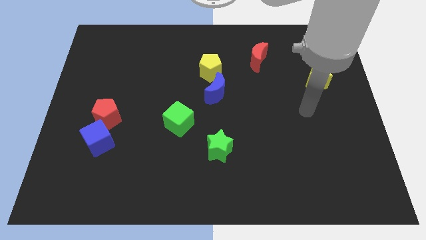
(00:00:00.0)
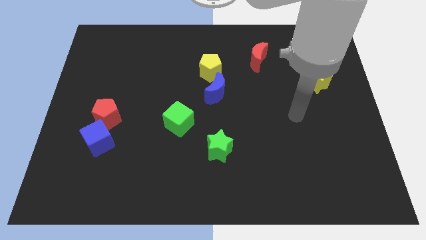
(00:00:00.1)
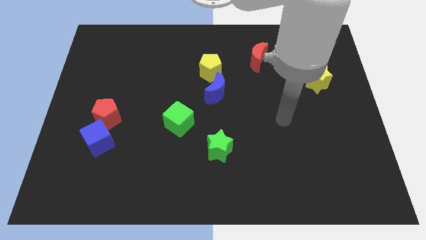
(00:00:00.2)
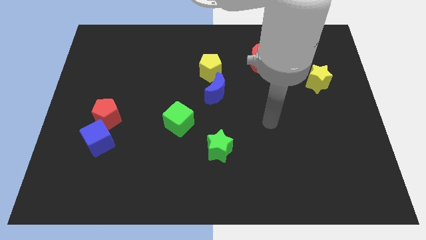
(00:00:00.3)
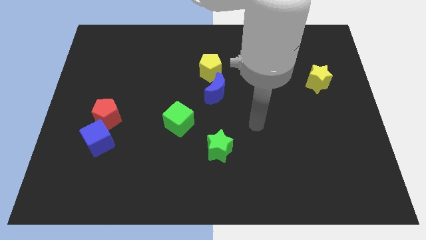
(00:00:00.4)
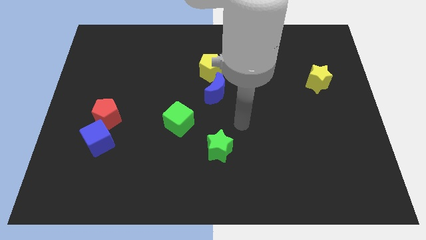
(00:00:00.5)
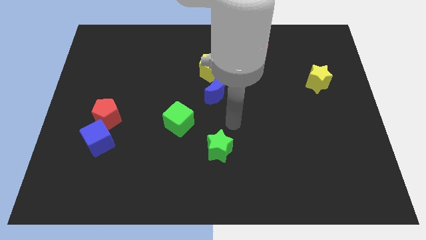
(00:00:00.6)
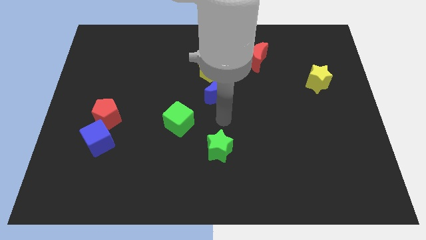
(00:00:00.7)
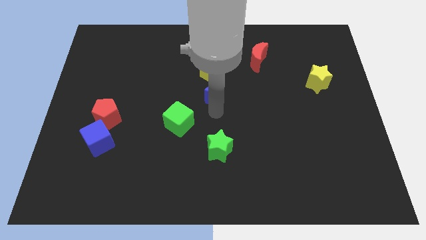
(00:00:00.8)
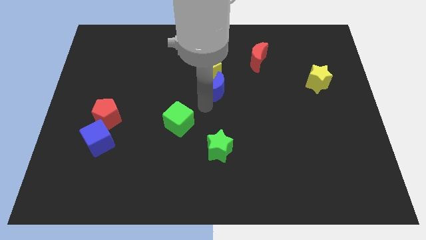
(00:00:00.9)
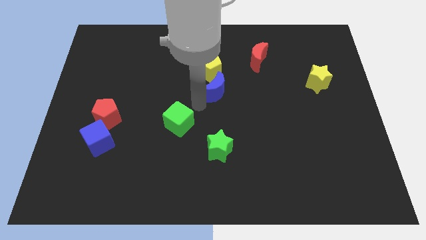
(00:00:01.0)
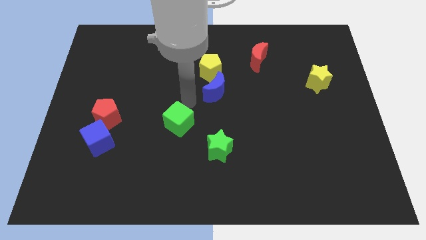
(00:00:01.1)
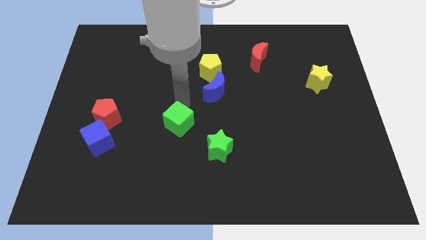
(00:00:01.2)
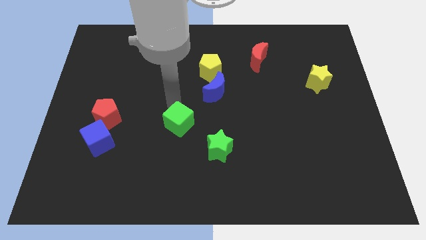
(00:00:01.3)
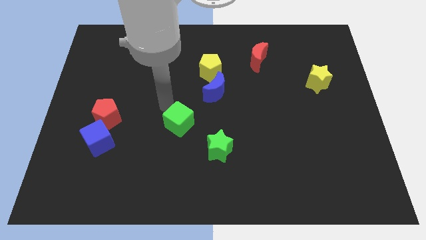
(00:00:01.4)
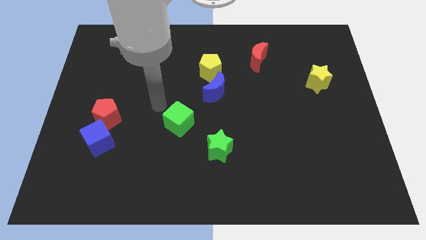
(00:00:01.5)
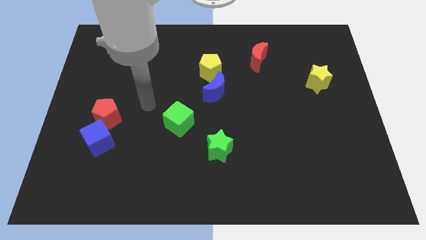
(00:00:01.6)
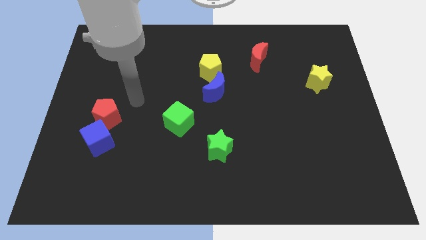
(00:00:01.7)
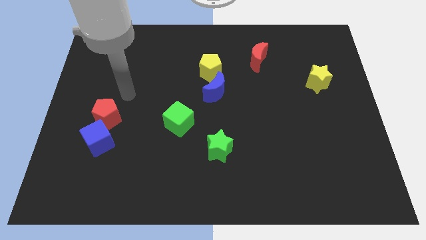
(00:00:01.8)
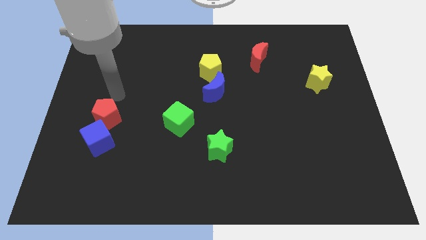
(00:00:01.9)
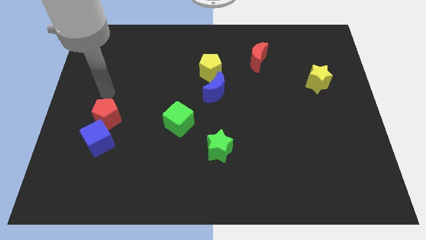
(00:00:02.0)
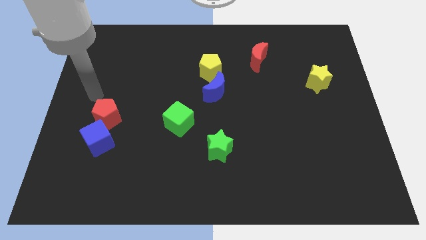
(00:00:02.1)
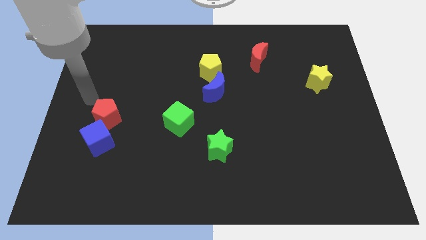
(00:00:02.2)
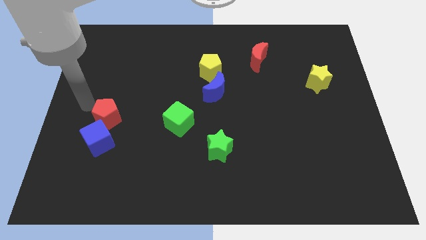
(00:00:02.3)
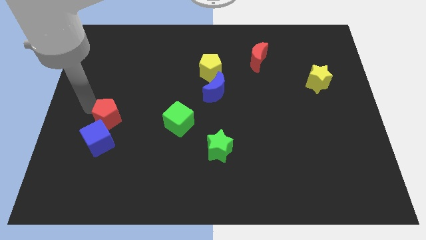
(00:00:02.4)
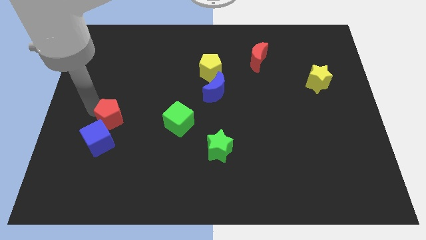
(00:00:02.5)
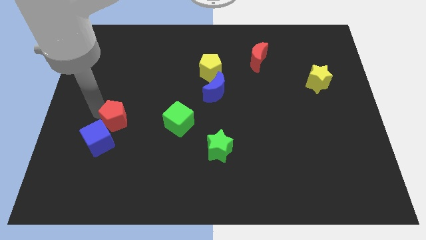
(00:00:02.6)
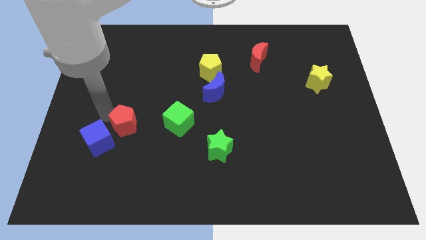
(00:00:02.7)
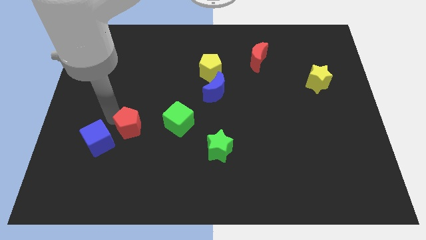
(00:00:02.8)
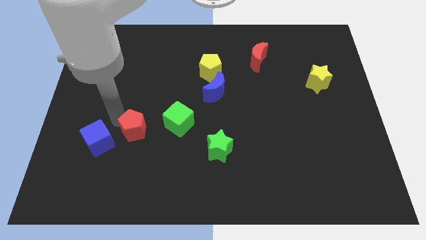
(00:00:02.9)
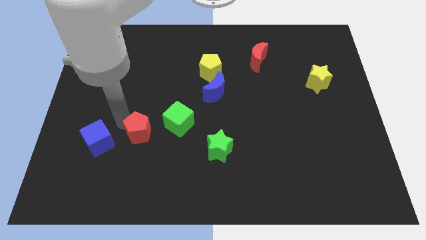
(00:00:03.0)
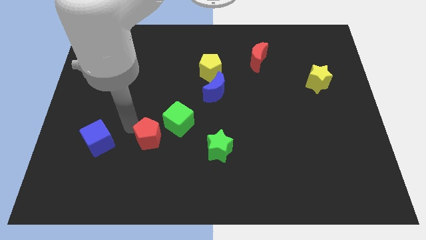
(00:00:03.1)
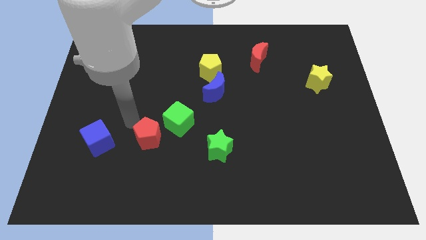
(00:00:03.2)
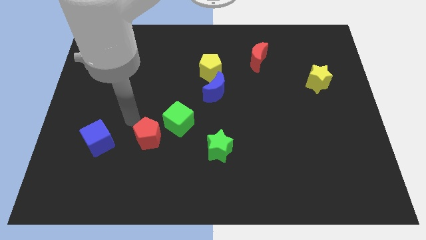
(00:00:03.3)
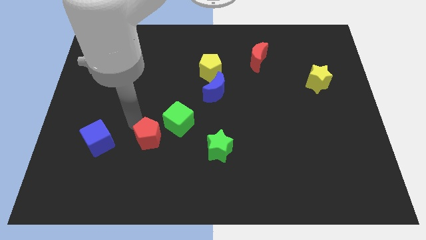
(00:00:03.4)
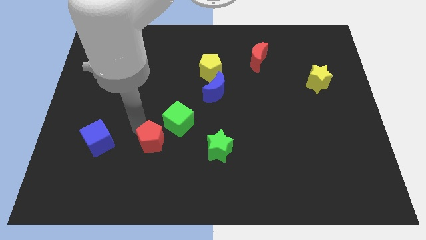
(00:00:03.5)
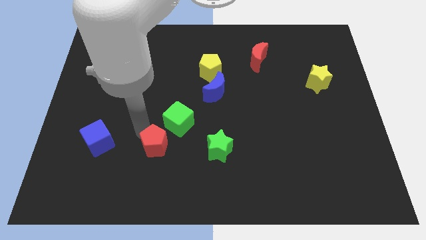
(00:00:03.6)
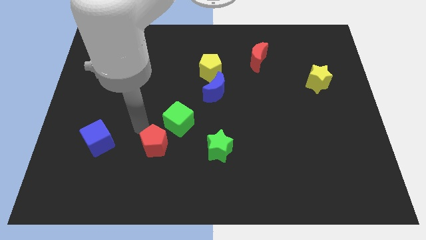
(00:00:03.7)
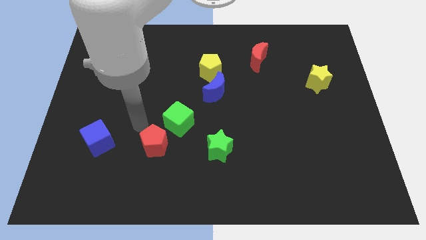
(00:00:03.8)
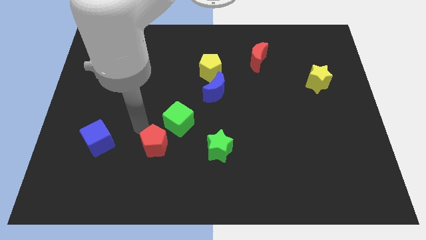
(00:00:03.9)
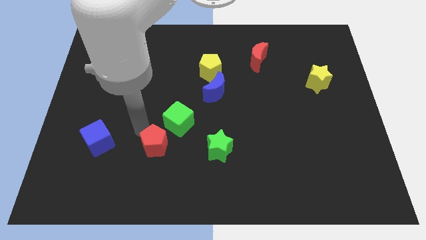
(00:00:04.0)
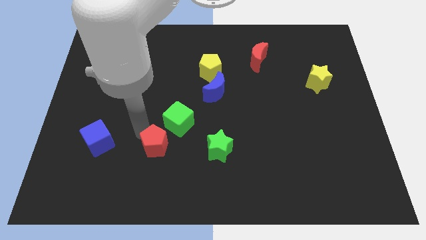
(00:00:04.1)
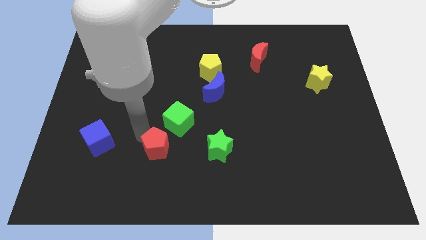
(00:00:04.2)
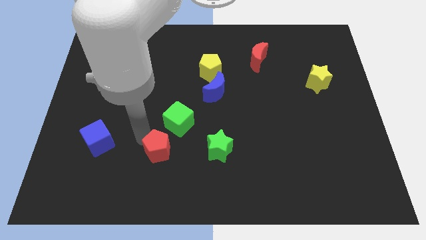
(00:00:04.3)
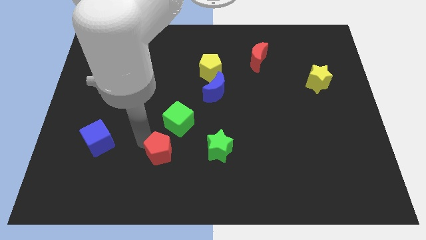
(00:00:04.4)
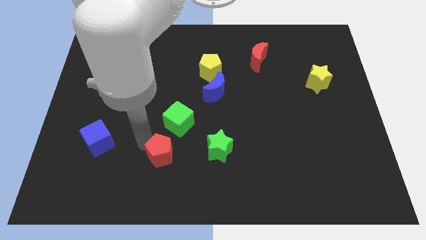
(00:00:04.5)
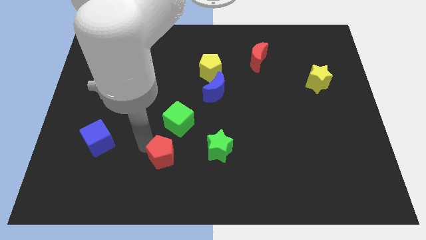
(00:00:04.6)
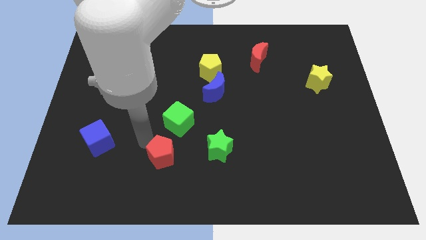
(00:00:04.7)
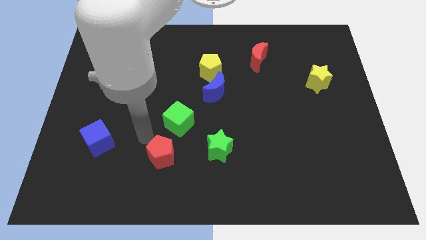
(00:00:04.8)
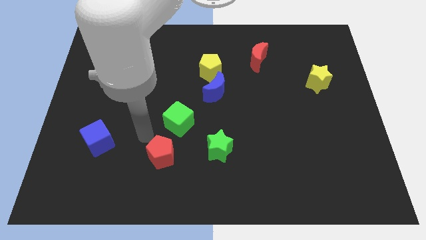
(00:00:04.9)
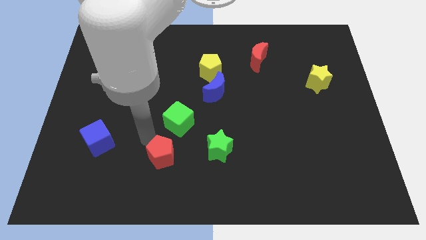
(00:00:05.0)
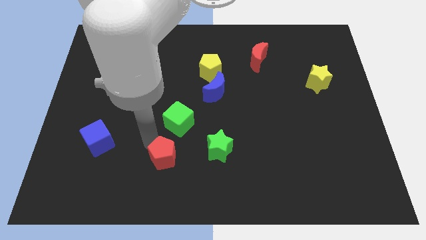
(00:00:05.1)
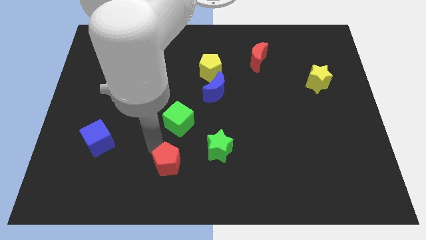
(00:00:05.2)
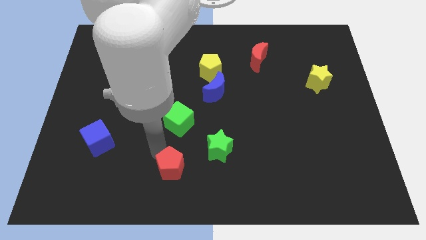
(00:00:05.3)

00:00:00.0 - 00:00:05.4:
push the red pentagon to the bottom

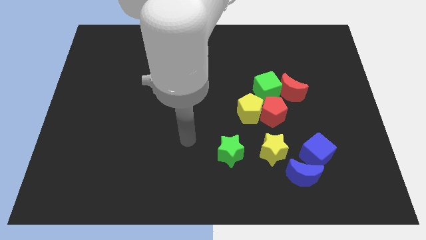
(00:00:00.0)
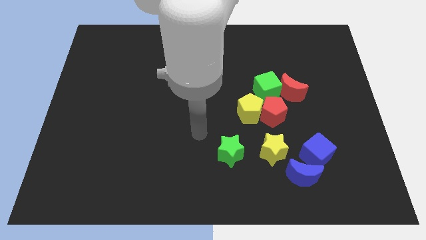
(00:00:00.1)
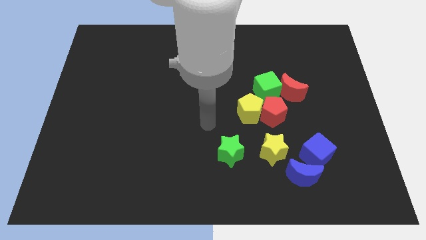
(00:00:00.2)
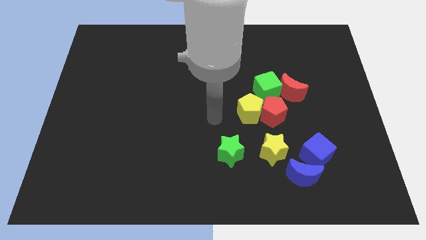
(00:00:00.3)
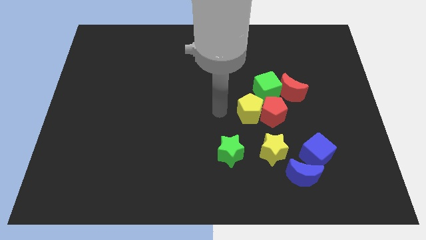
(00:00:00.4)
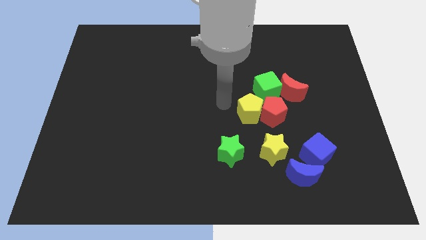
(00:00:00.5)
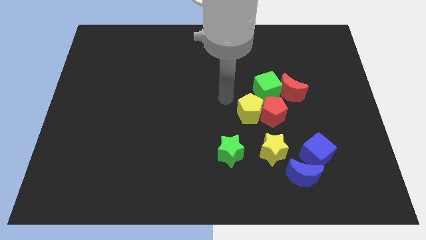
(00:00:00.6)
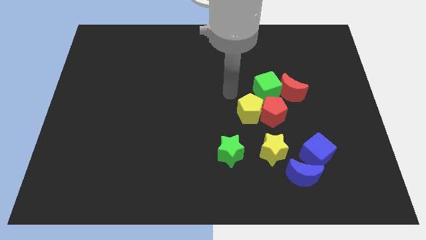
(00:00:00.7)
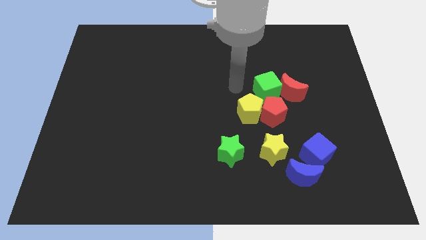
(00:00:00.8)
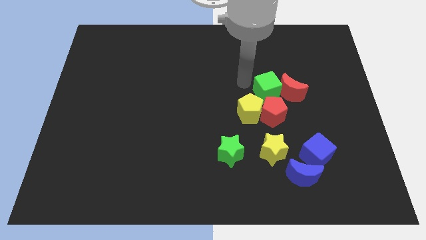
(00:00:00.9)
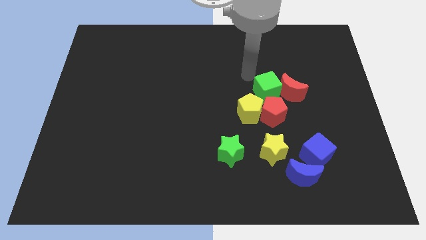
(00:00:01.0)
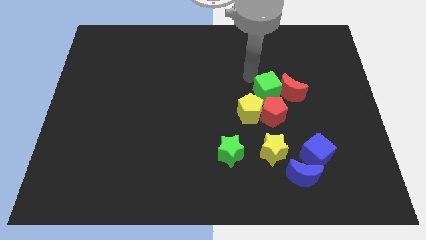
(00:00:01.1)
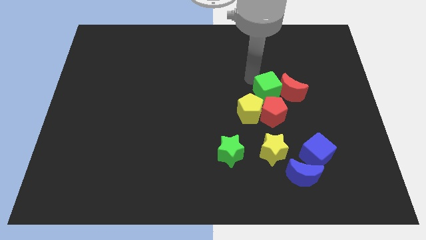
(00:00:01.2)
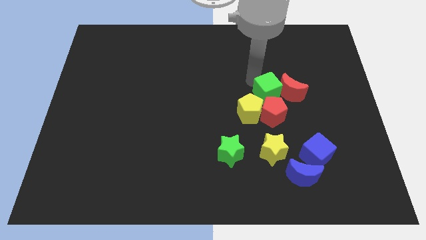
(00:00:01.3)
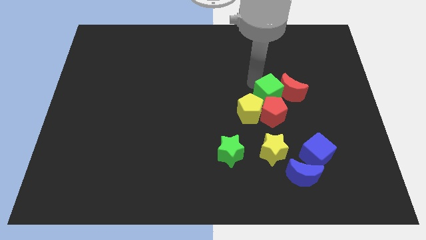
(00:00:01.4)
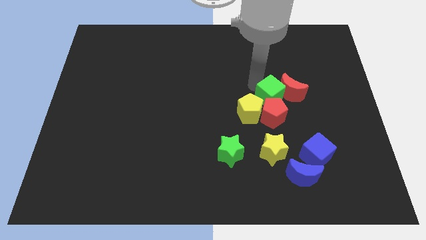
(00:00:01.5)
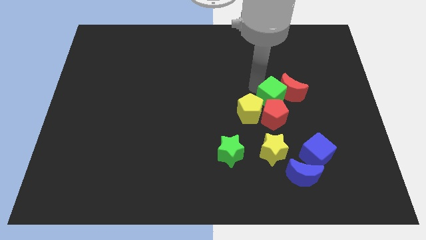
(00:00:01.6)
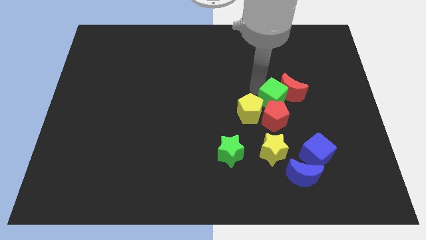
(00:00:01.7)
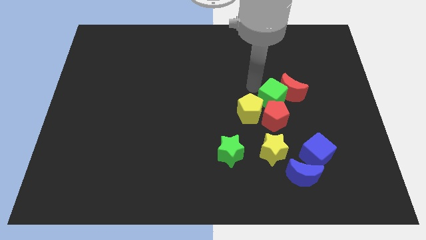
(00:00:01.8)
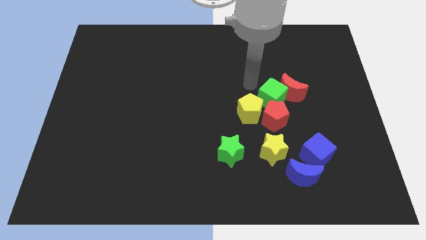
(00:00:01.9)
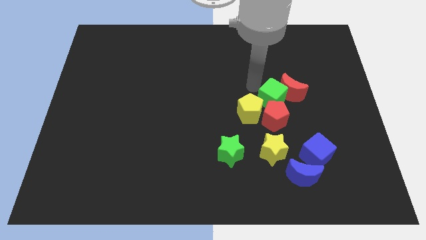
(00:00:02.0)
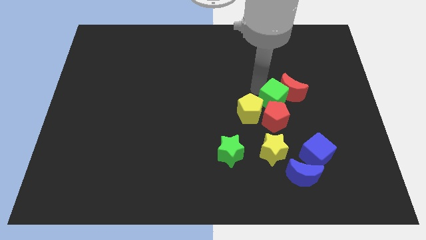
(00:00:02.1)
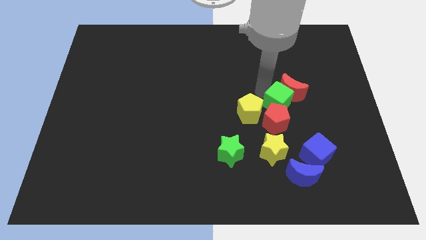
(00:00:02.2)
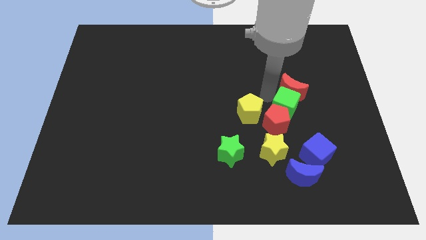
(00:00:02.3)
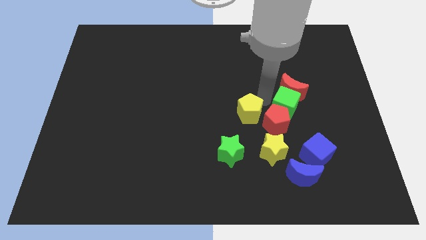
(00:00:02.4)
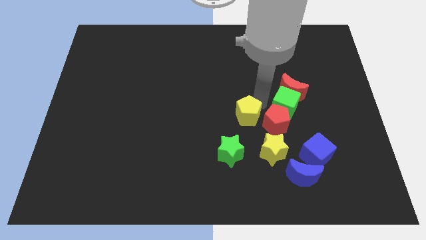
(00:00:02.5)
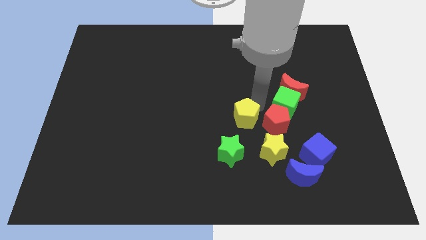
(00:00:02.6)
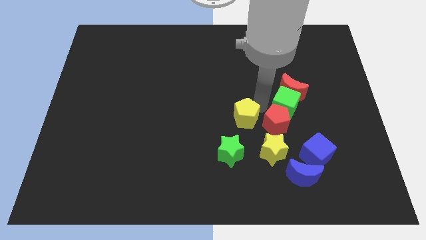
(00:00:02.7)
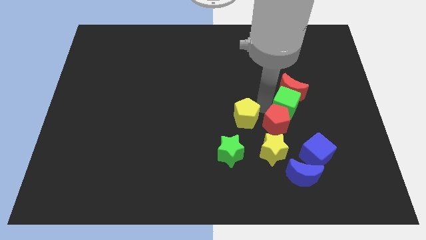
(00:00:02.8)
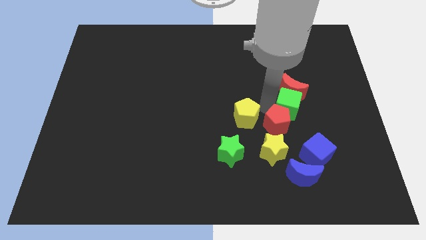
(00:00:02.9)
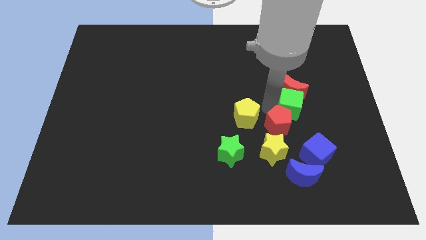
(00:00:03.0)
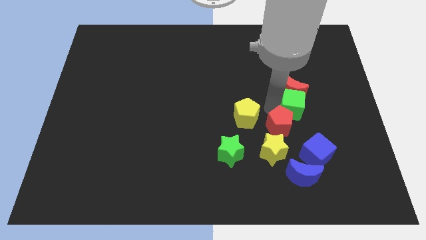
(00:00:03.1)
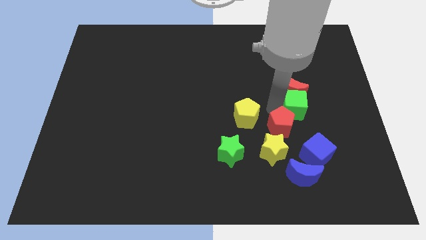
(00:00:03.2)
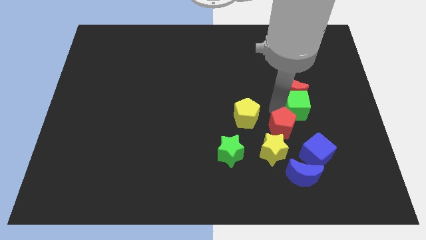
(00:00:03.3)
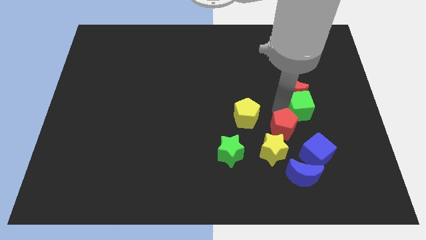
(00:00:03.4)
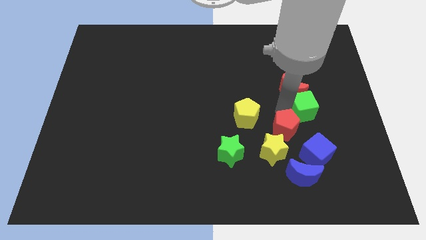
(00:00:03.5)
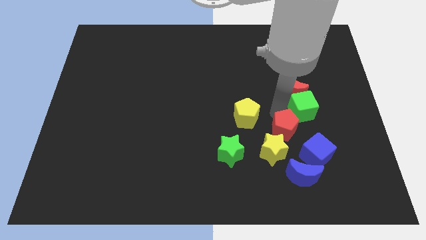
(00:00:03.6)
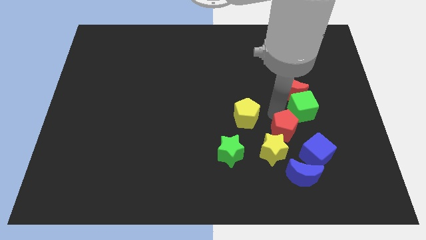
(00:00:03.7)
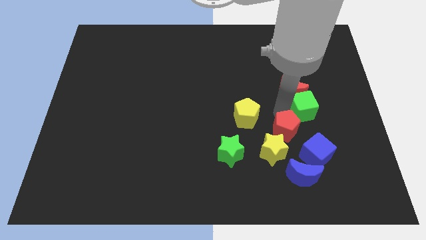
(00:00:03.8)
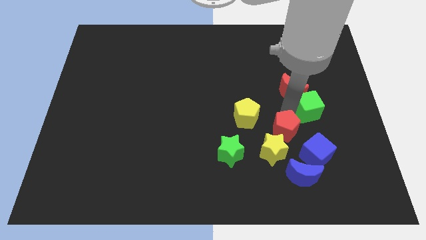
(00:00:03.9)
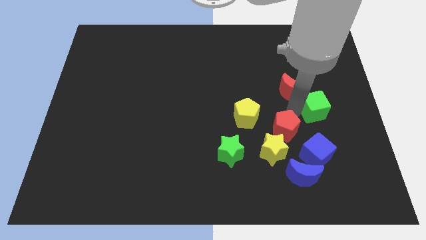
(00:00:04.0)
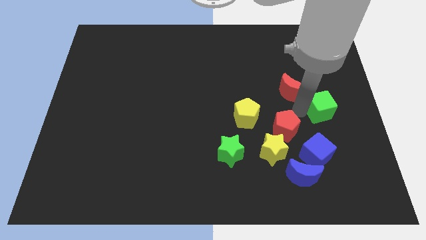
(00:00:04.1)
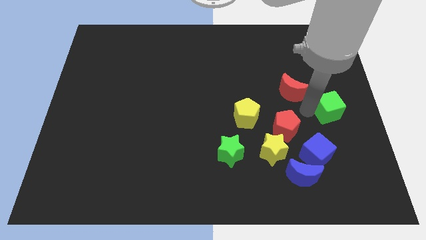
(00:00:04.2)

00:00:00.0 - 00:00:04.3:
move the green cube to the right side
